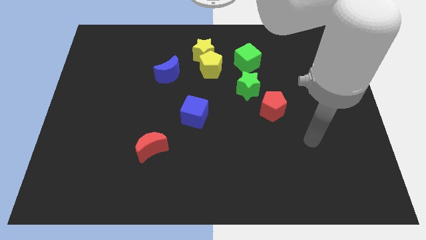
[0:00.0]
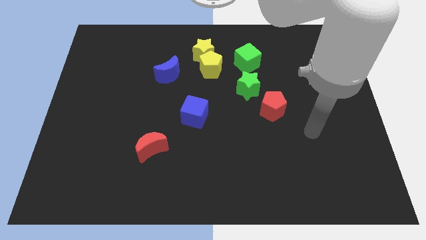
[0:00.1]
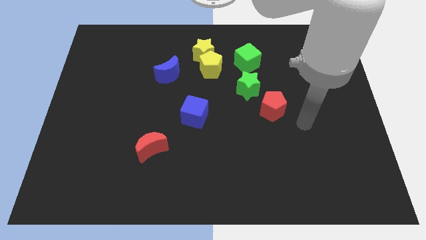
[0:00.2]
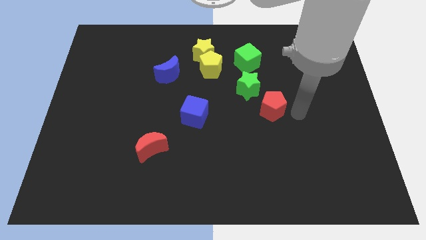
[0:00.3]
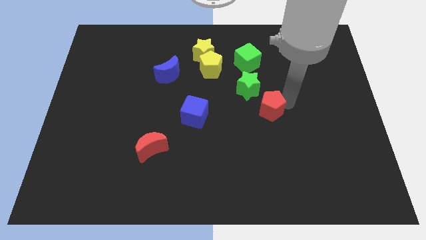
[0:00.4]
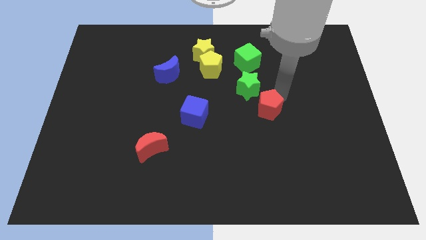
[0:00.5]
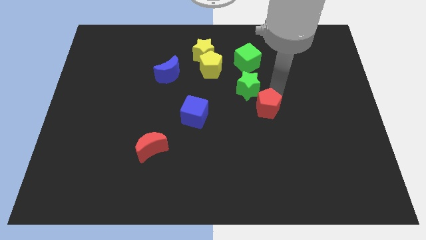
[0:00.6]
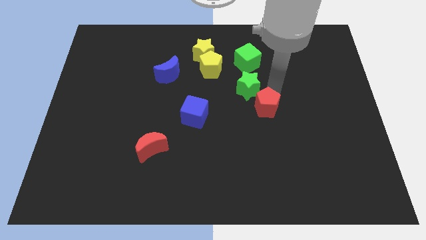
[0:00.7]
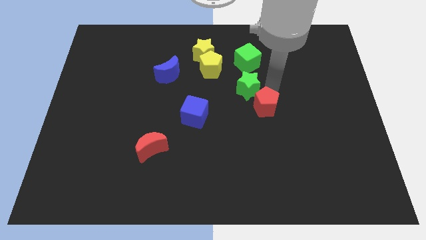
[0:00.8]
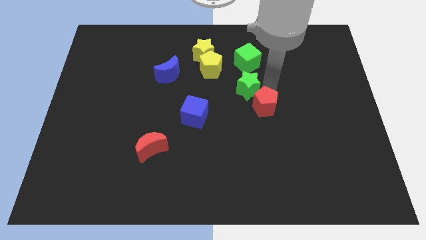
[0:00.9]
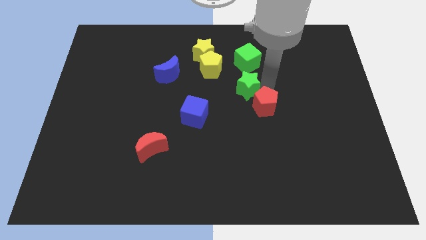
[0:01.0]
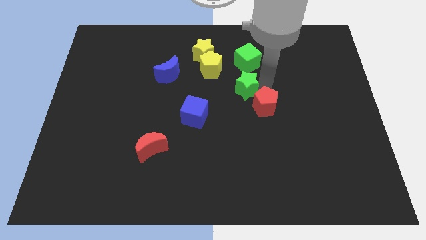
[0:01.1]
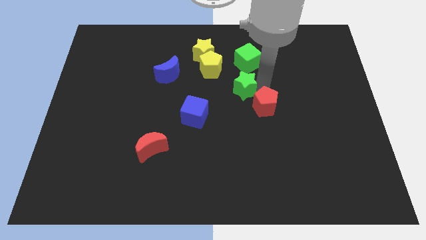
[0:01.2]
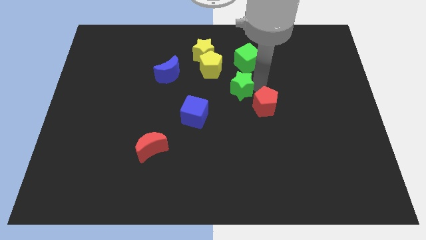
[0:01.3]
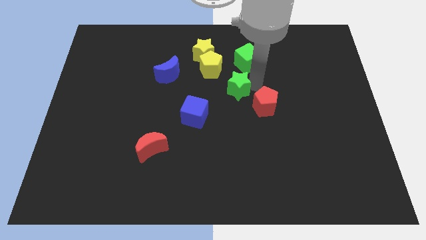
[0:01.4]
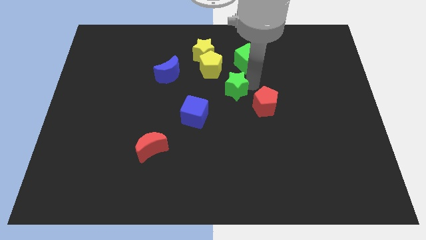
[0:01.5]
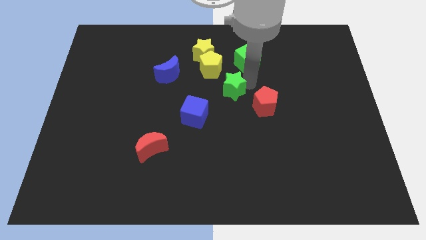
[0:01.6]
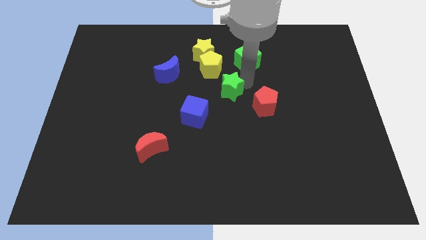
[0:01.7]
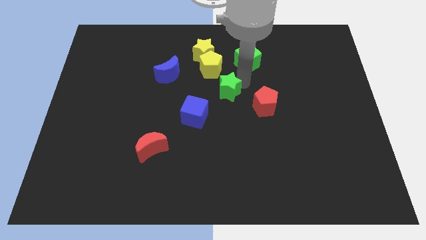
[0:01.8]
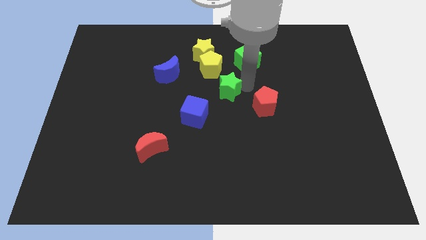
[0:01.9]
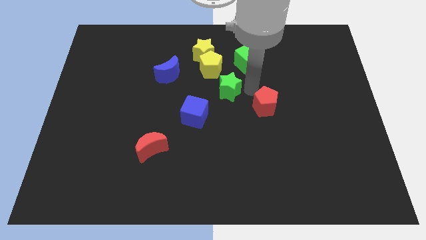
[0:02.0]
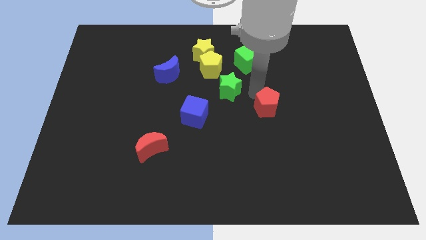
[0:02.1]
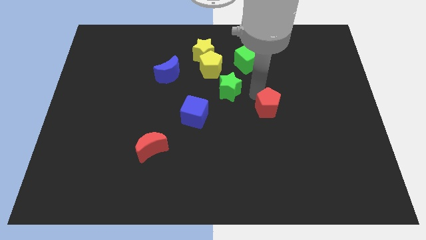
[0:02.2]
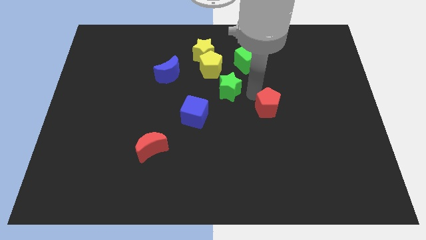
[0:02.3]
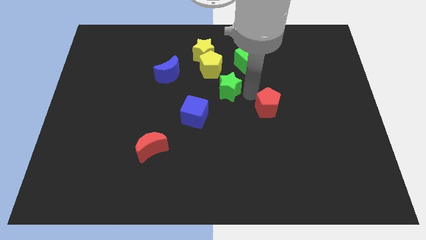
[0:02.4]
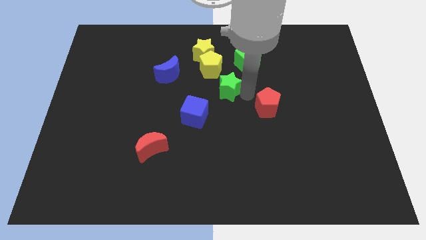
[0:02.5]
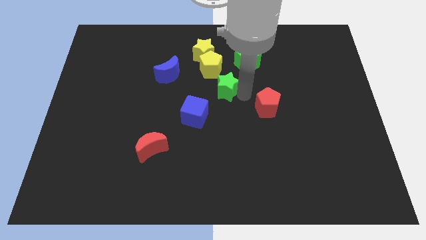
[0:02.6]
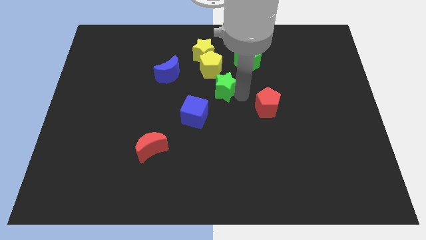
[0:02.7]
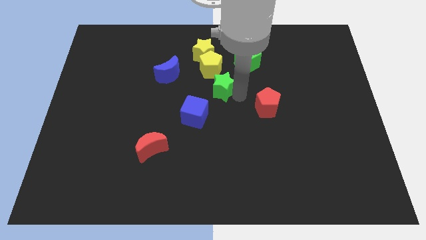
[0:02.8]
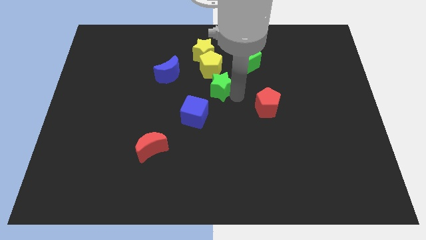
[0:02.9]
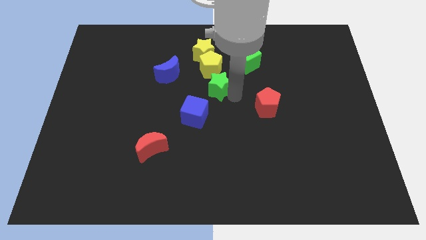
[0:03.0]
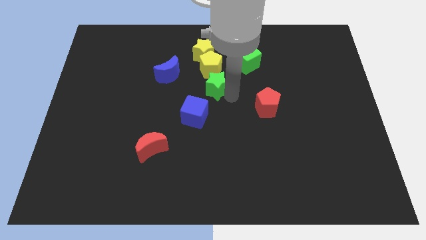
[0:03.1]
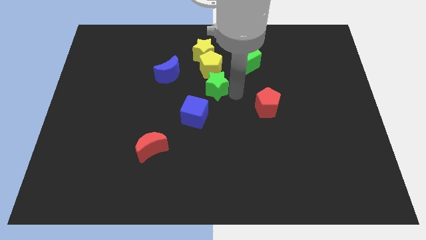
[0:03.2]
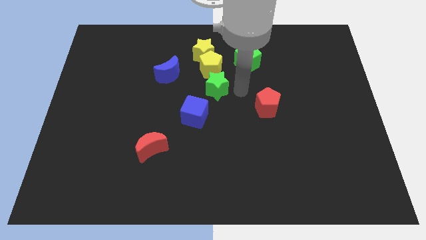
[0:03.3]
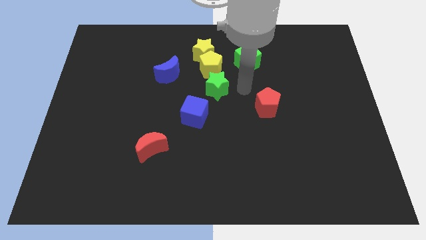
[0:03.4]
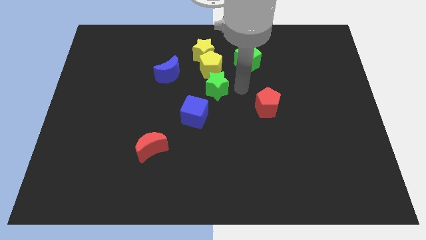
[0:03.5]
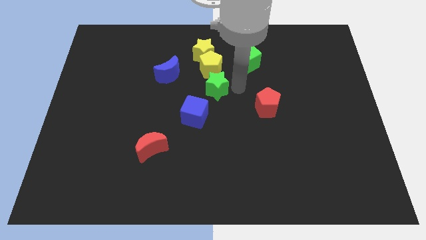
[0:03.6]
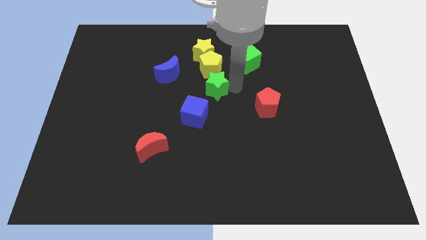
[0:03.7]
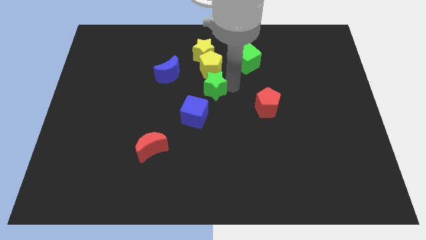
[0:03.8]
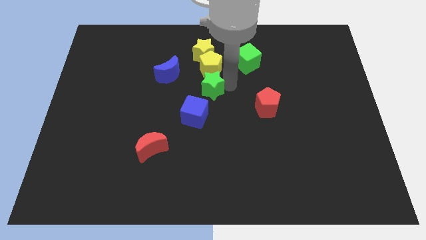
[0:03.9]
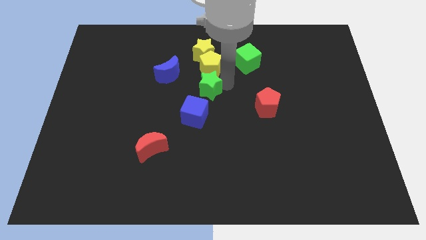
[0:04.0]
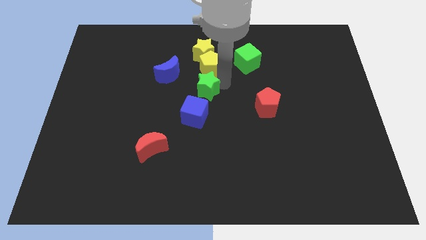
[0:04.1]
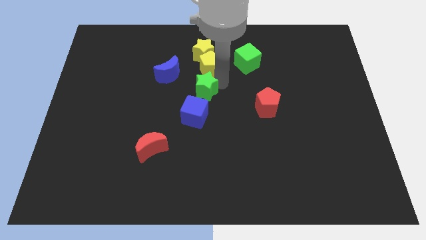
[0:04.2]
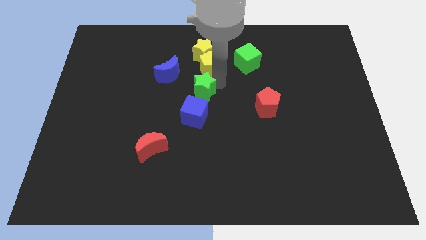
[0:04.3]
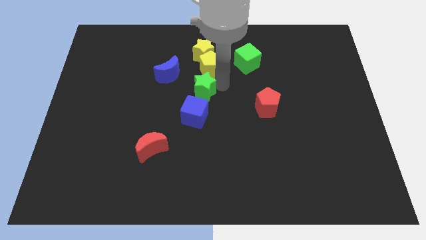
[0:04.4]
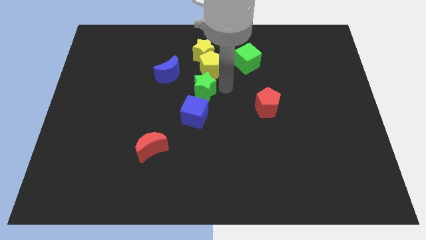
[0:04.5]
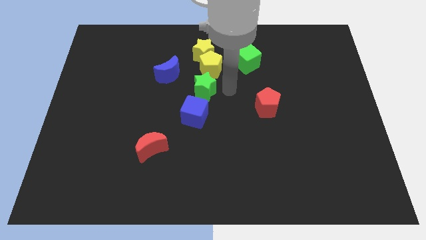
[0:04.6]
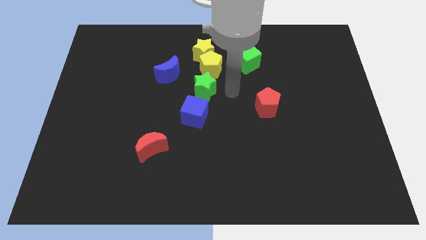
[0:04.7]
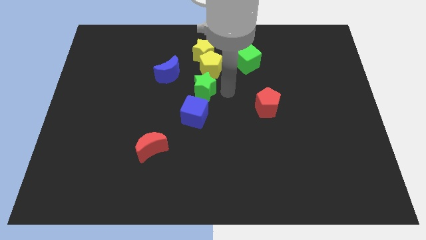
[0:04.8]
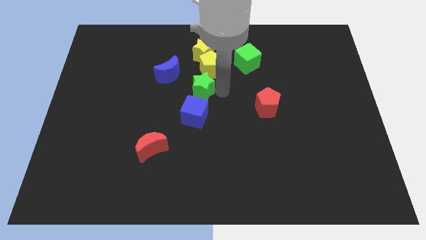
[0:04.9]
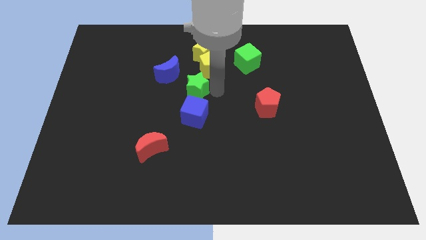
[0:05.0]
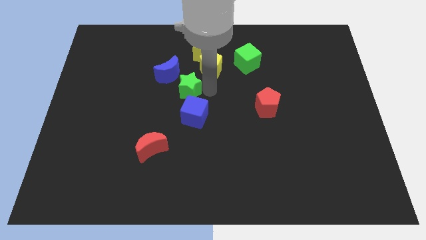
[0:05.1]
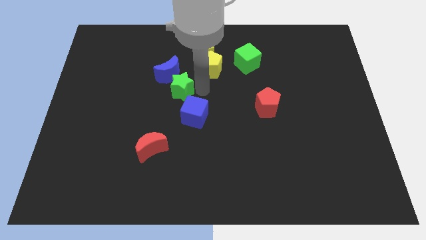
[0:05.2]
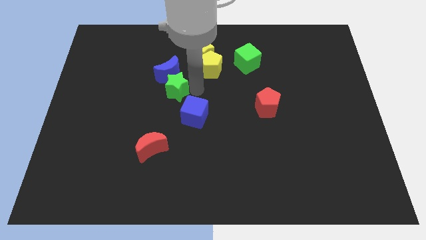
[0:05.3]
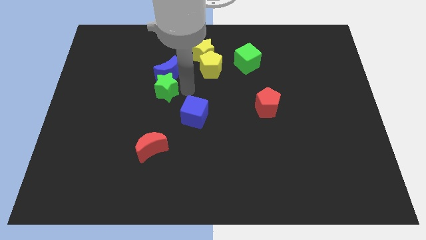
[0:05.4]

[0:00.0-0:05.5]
move the green star to the left

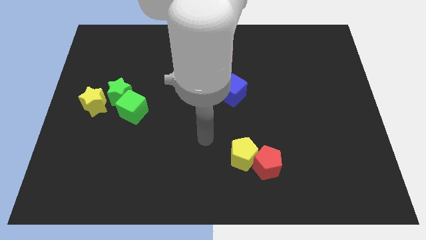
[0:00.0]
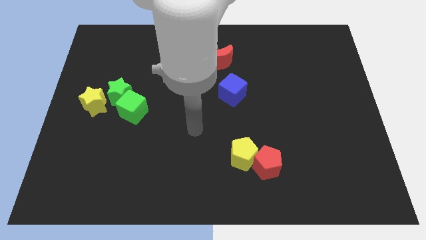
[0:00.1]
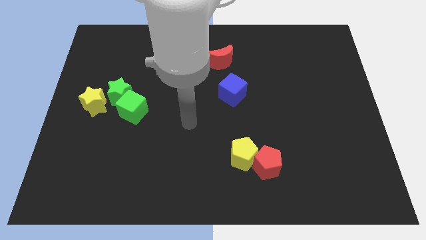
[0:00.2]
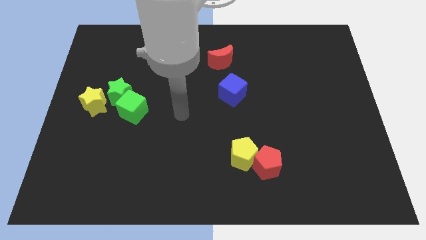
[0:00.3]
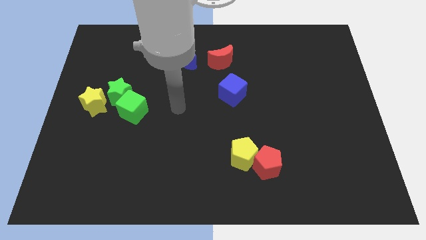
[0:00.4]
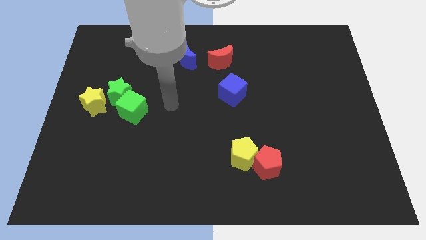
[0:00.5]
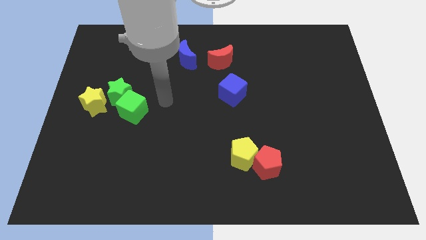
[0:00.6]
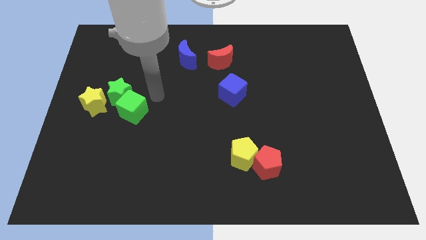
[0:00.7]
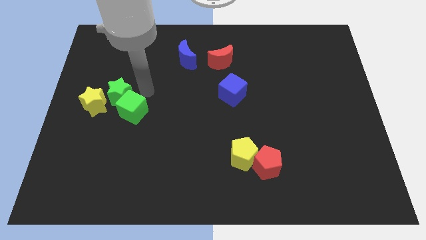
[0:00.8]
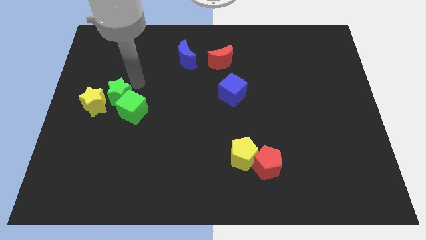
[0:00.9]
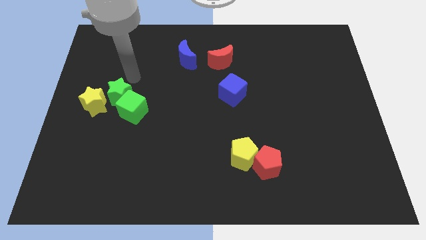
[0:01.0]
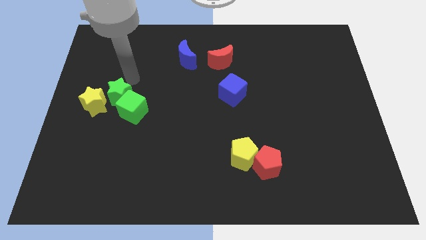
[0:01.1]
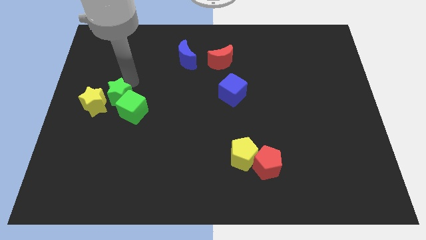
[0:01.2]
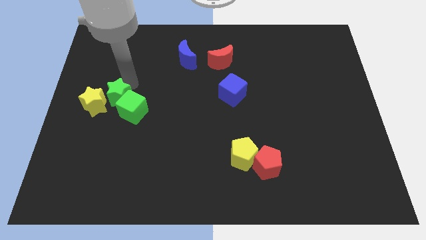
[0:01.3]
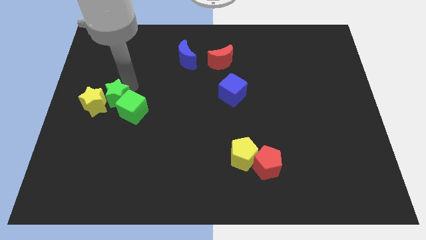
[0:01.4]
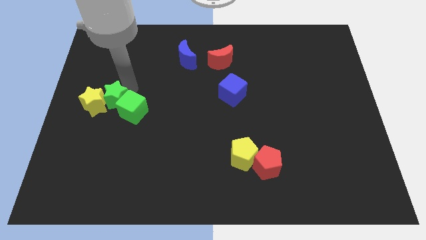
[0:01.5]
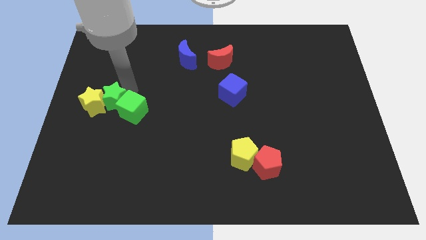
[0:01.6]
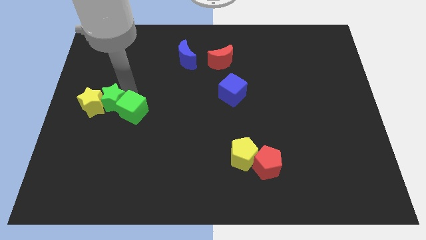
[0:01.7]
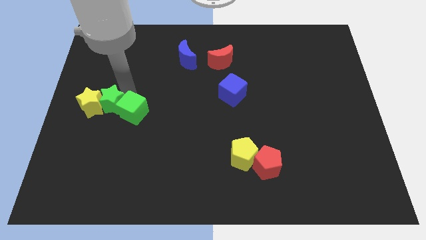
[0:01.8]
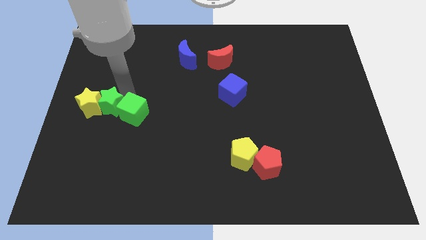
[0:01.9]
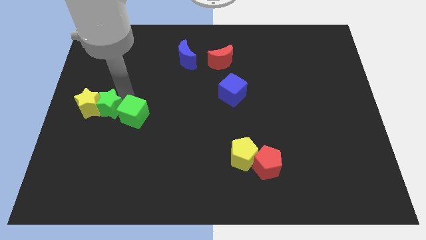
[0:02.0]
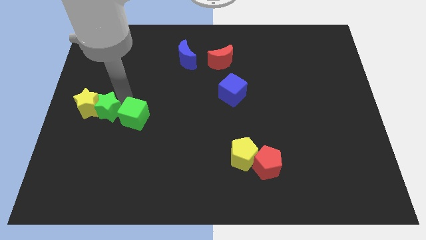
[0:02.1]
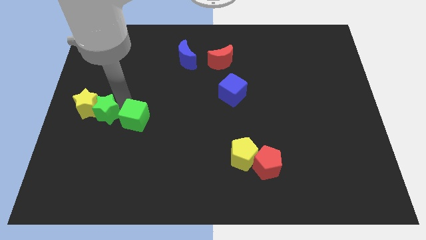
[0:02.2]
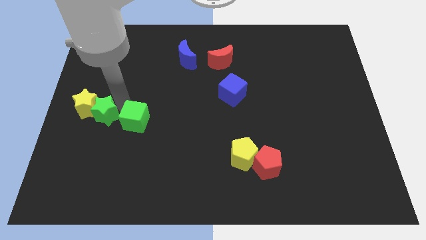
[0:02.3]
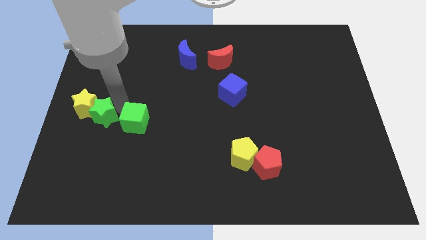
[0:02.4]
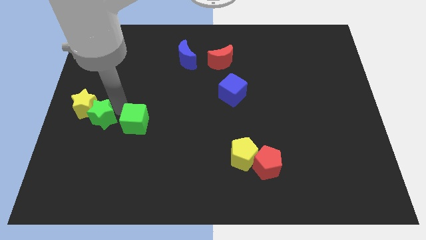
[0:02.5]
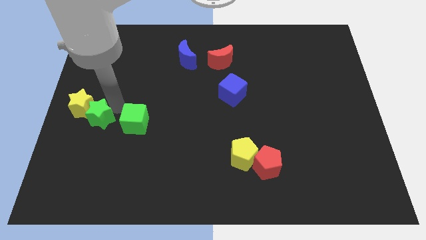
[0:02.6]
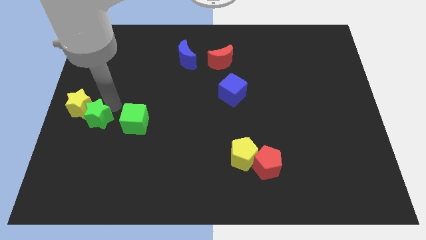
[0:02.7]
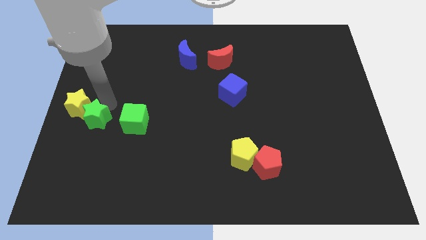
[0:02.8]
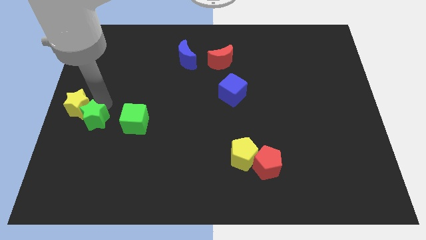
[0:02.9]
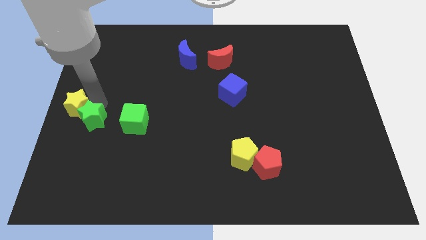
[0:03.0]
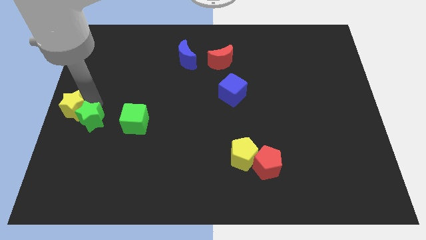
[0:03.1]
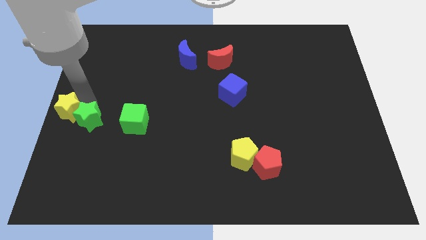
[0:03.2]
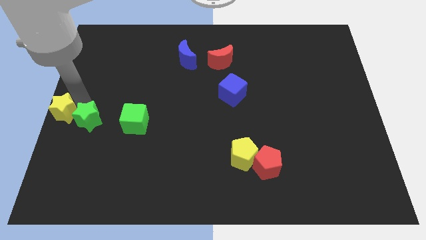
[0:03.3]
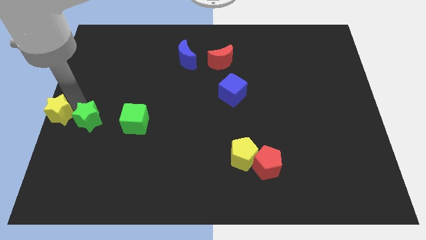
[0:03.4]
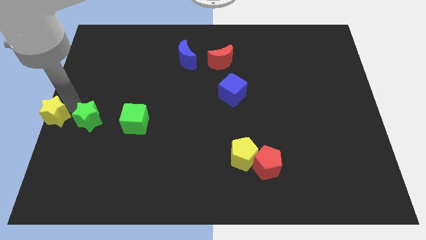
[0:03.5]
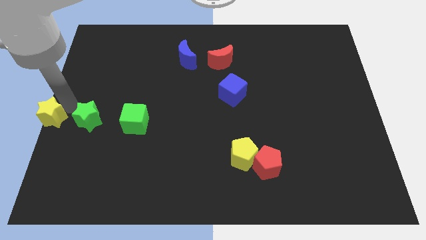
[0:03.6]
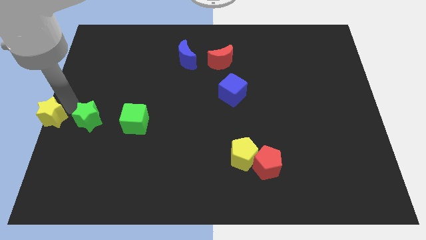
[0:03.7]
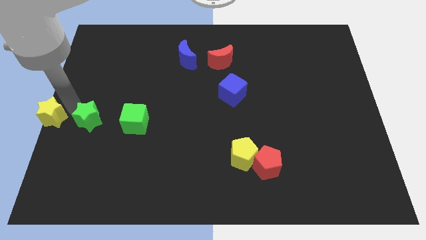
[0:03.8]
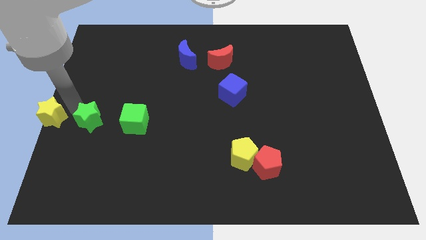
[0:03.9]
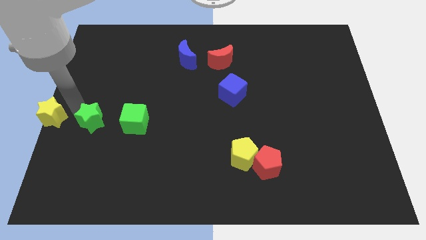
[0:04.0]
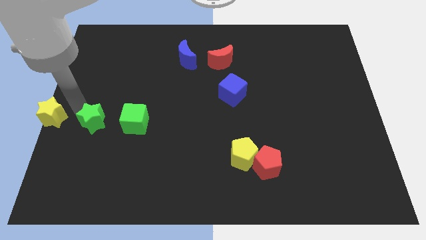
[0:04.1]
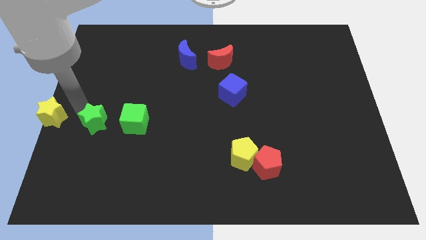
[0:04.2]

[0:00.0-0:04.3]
slightly push the green star down
